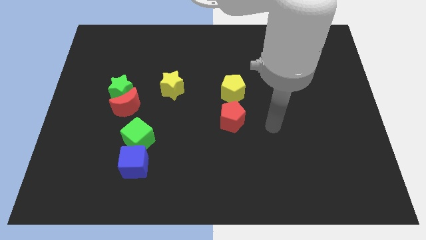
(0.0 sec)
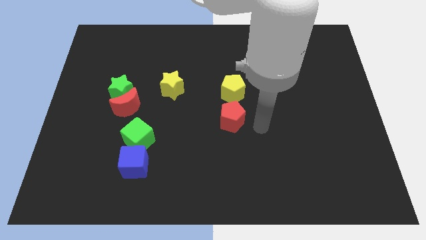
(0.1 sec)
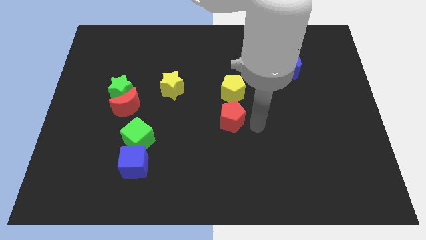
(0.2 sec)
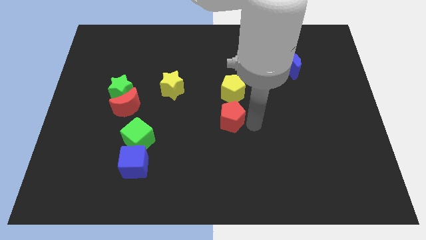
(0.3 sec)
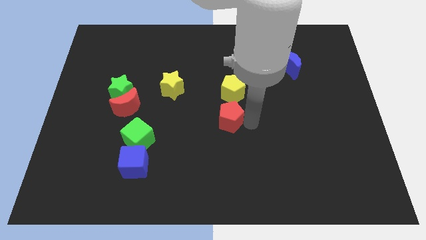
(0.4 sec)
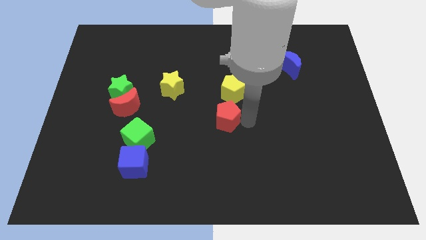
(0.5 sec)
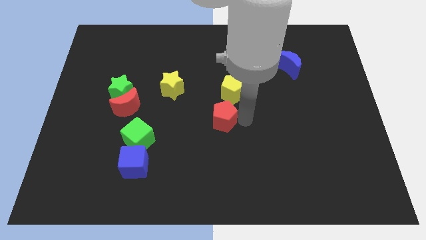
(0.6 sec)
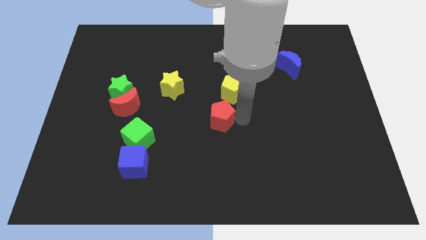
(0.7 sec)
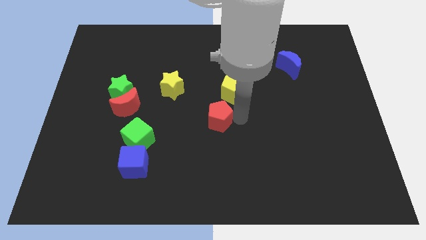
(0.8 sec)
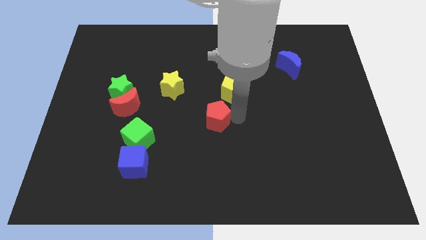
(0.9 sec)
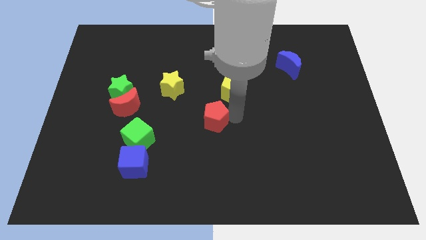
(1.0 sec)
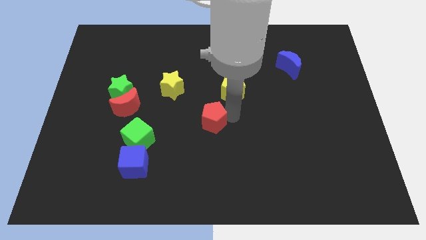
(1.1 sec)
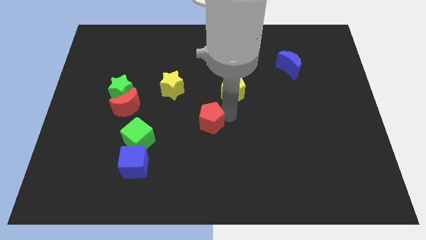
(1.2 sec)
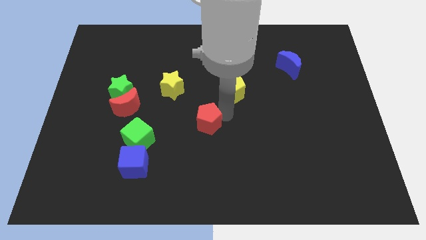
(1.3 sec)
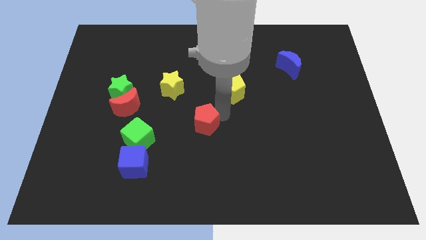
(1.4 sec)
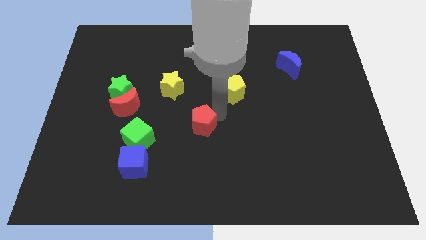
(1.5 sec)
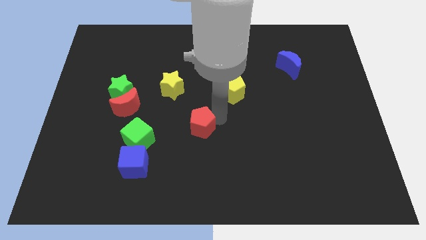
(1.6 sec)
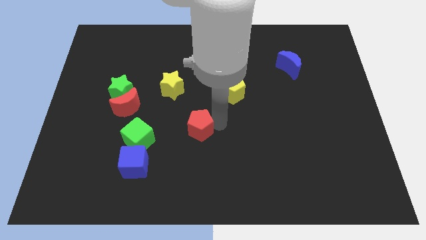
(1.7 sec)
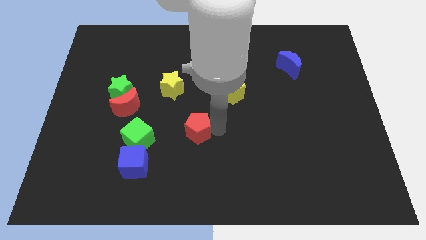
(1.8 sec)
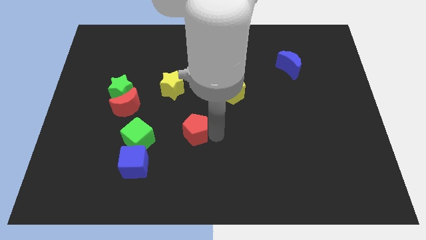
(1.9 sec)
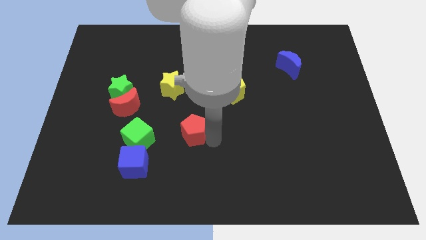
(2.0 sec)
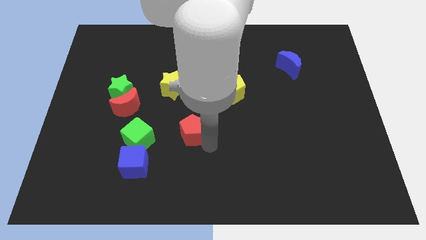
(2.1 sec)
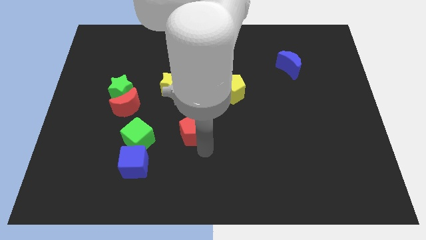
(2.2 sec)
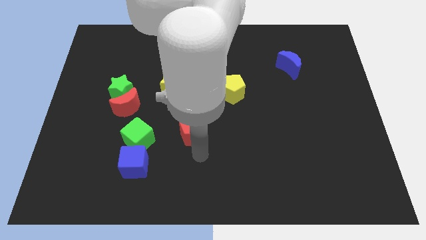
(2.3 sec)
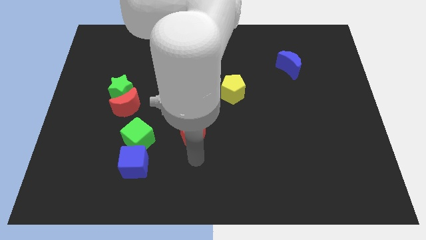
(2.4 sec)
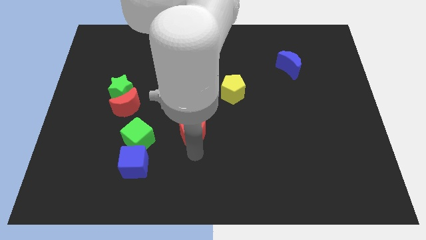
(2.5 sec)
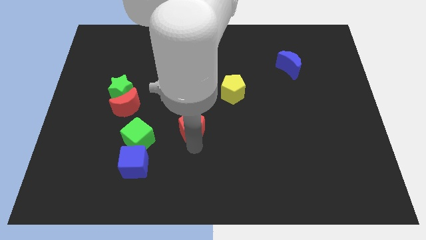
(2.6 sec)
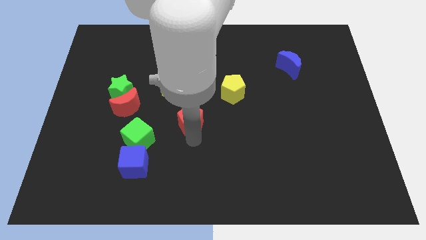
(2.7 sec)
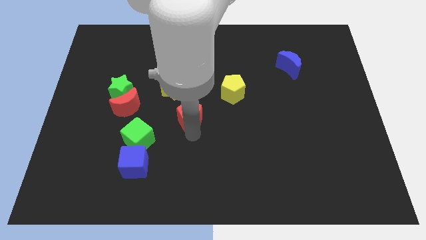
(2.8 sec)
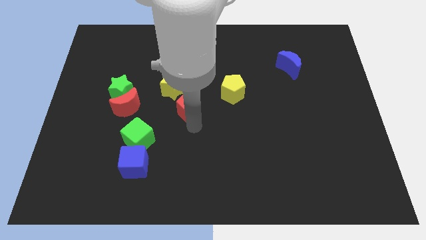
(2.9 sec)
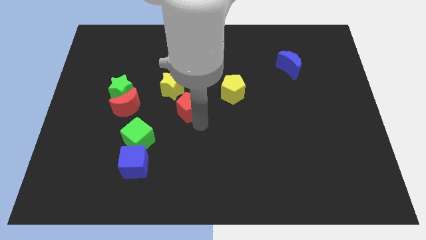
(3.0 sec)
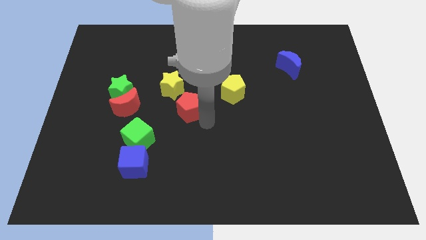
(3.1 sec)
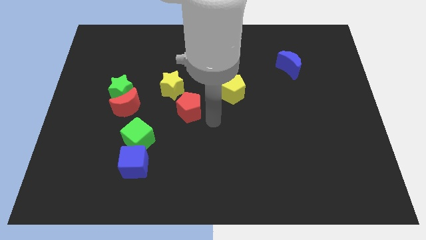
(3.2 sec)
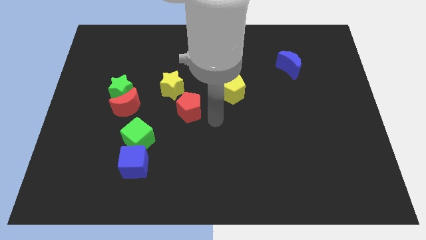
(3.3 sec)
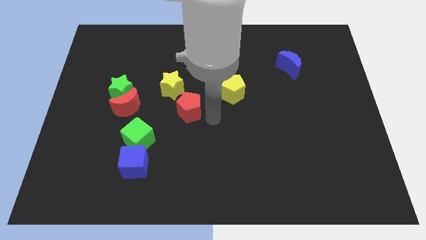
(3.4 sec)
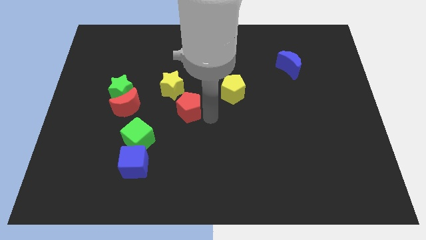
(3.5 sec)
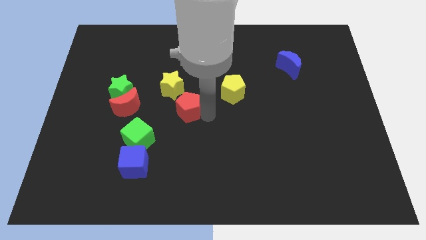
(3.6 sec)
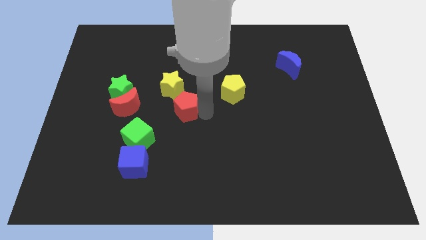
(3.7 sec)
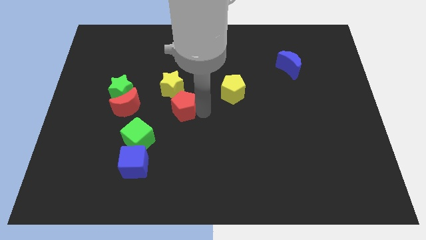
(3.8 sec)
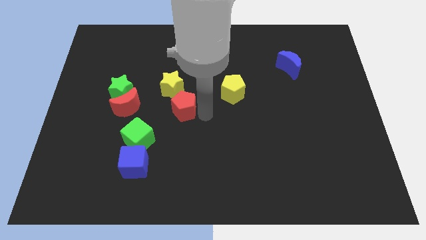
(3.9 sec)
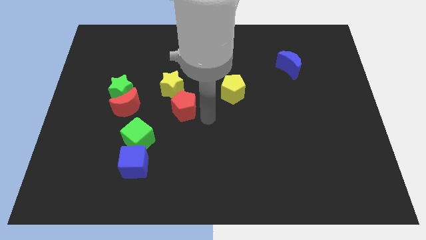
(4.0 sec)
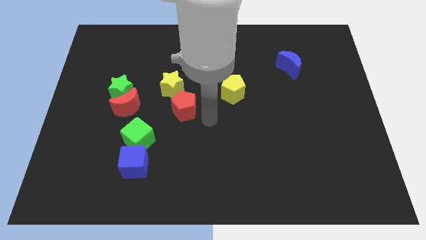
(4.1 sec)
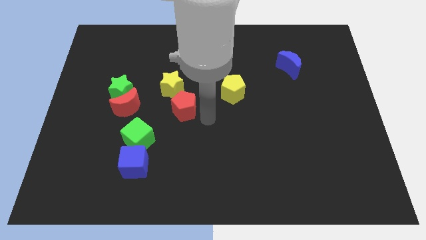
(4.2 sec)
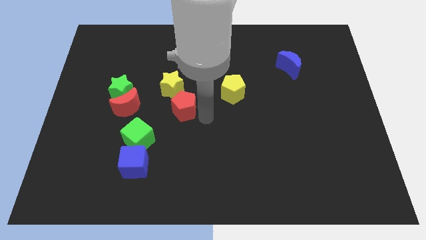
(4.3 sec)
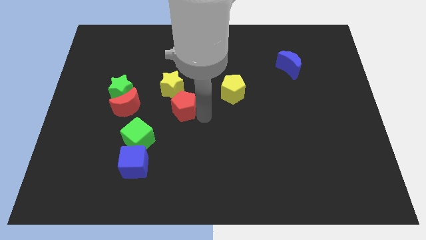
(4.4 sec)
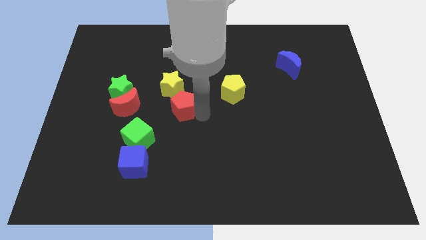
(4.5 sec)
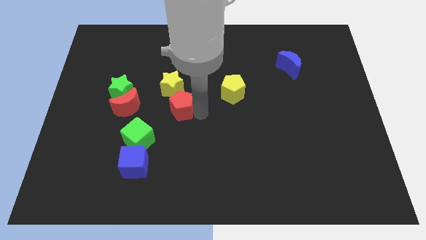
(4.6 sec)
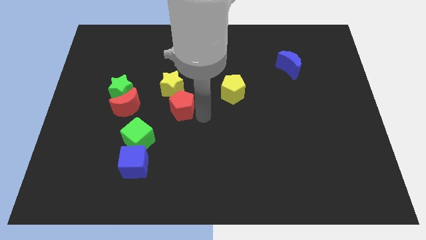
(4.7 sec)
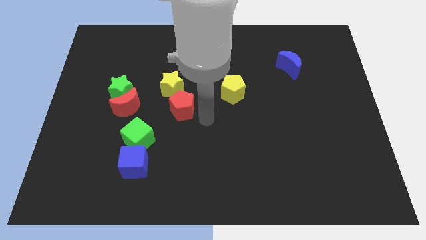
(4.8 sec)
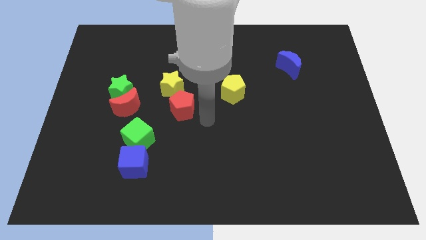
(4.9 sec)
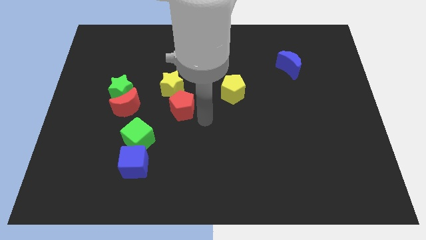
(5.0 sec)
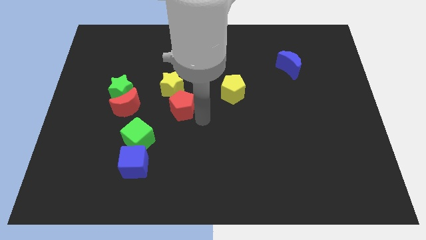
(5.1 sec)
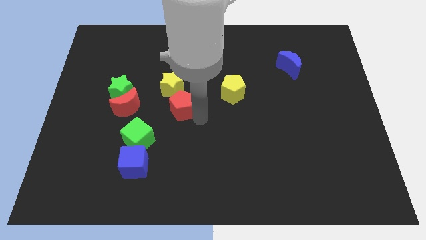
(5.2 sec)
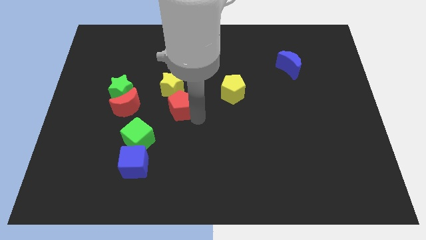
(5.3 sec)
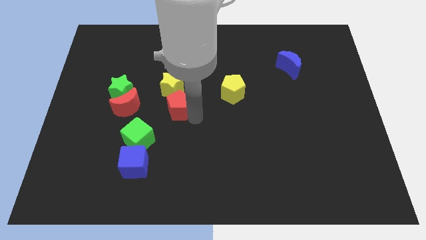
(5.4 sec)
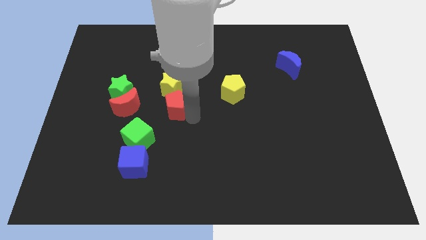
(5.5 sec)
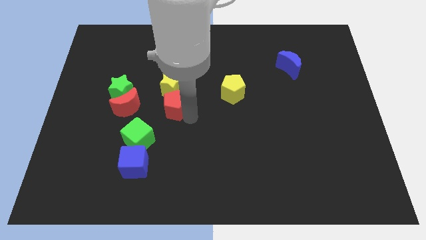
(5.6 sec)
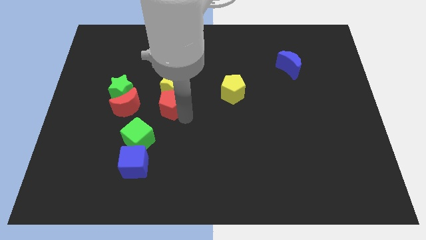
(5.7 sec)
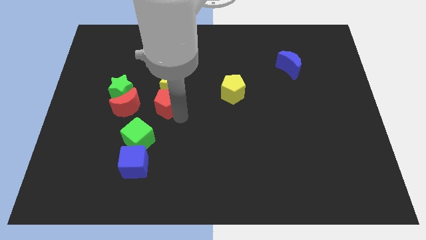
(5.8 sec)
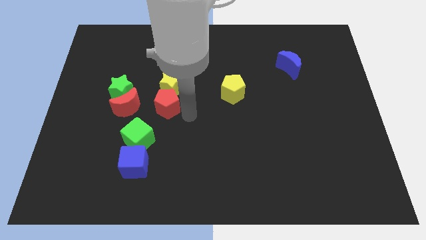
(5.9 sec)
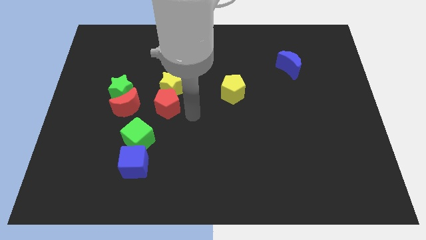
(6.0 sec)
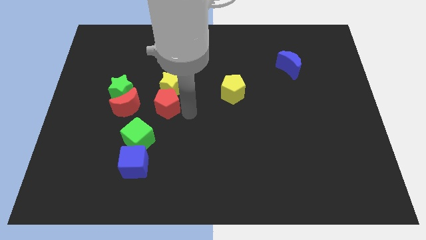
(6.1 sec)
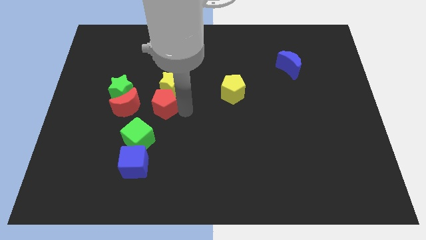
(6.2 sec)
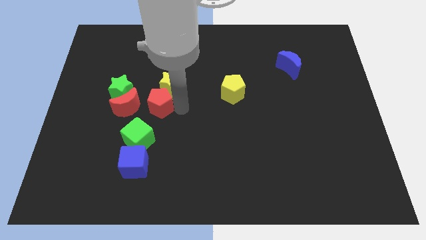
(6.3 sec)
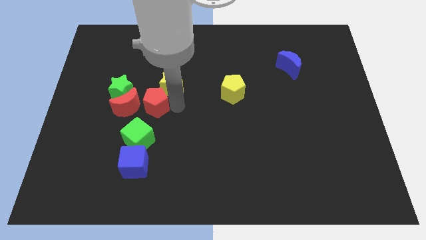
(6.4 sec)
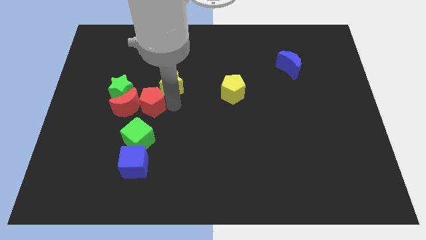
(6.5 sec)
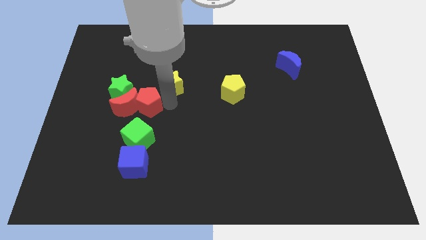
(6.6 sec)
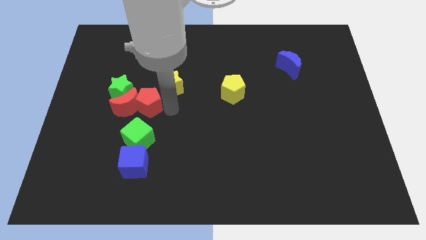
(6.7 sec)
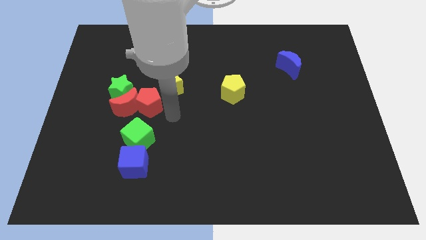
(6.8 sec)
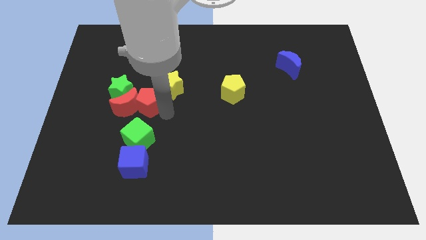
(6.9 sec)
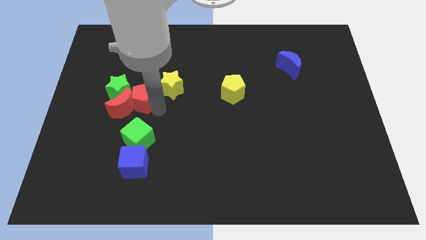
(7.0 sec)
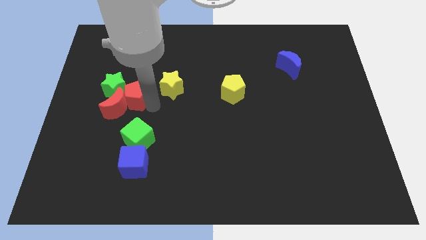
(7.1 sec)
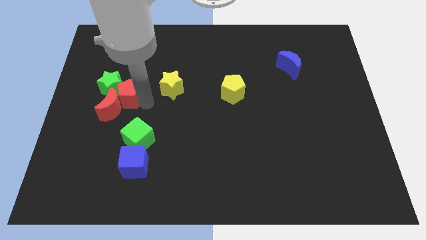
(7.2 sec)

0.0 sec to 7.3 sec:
put the red pentagon next to the green star
